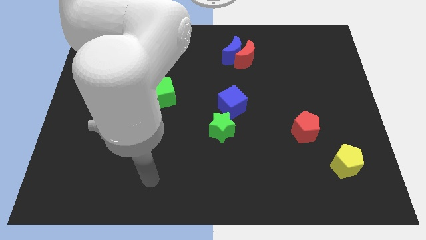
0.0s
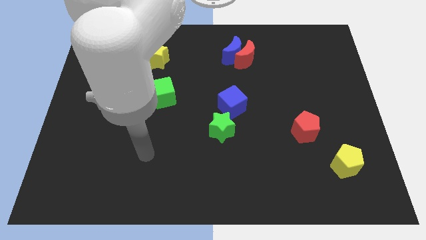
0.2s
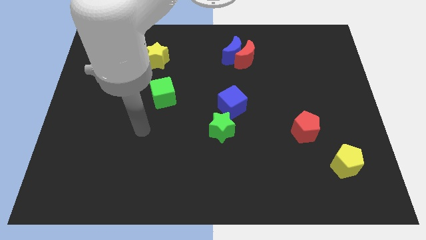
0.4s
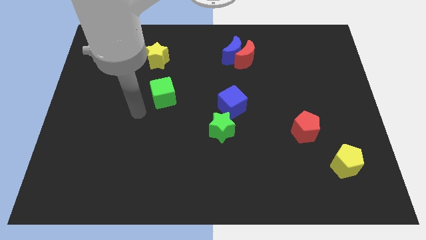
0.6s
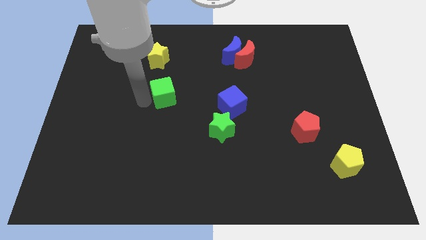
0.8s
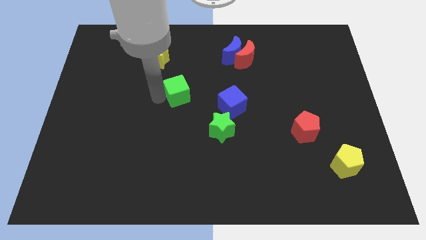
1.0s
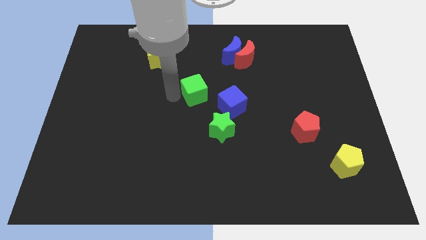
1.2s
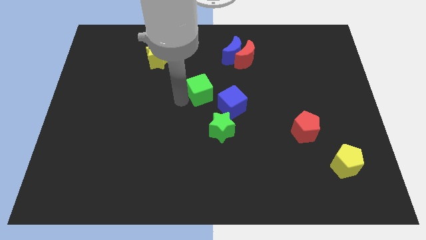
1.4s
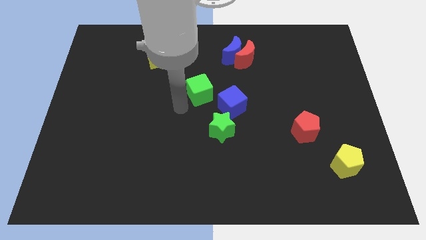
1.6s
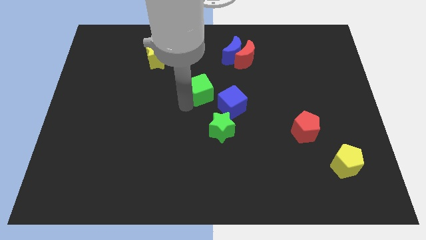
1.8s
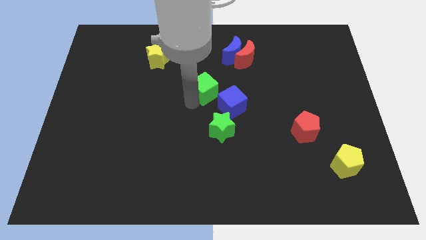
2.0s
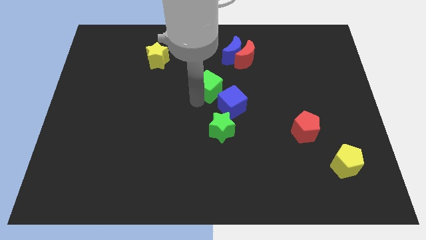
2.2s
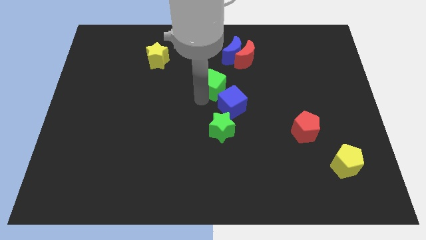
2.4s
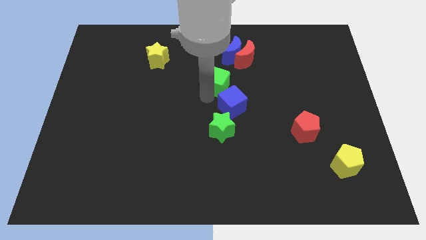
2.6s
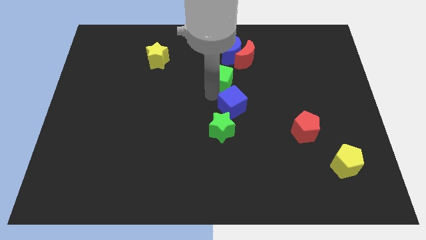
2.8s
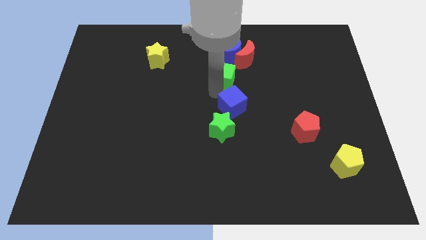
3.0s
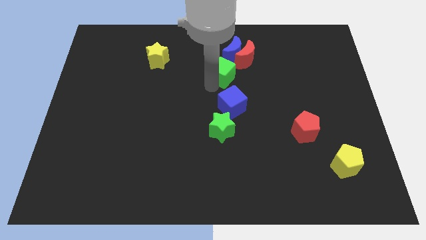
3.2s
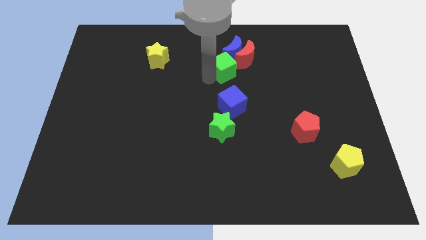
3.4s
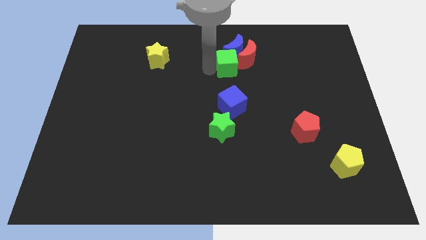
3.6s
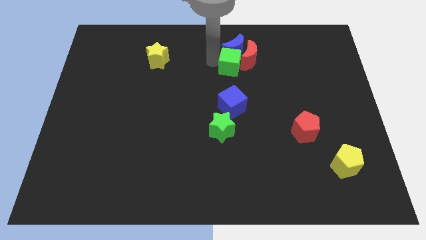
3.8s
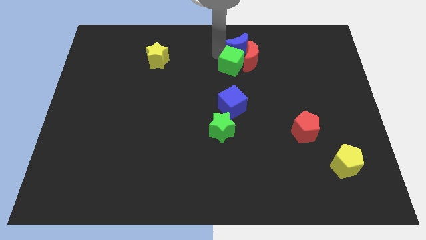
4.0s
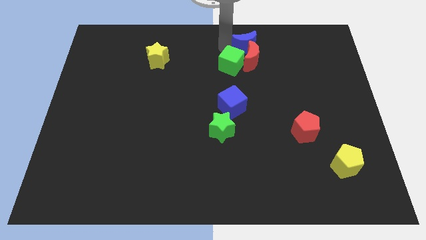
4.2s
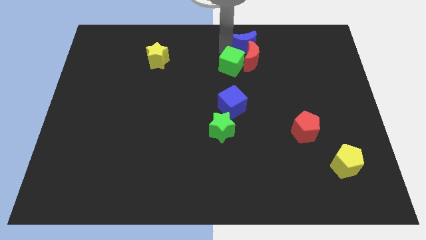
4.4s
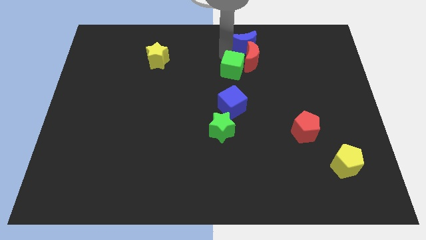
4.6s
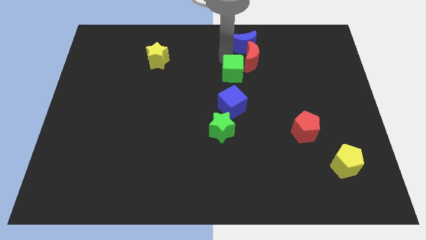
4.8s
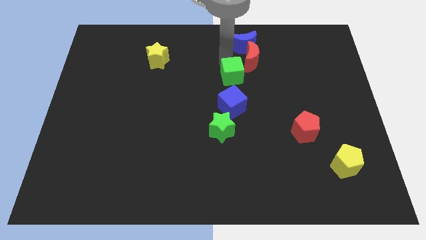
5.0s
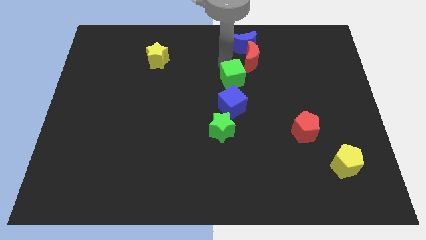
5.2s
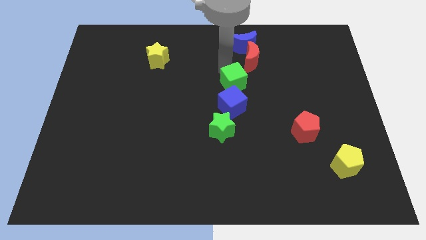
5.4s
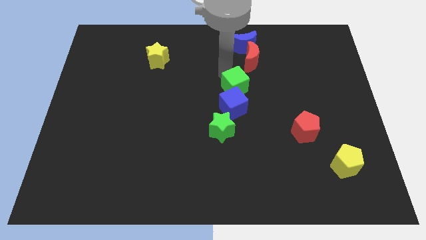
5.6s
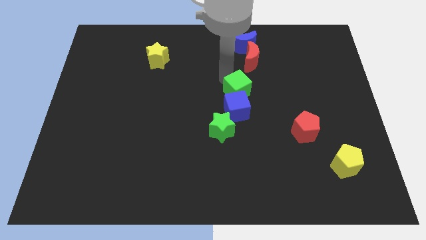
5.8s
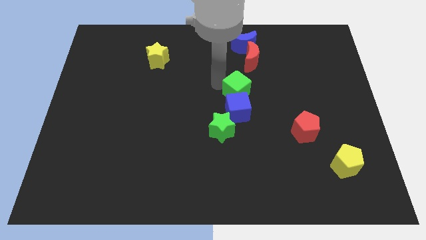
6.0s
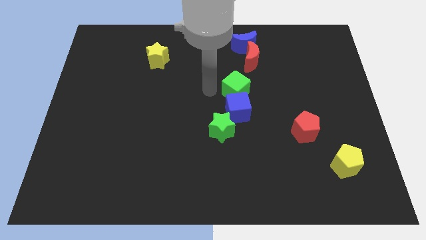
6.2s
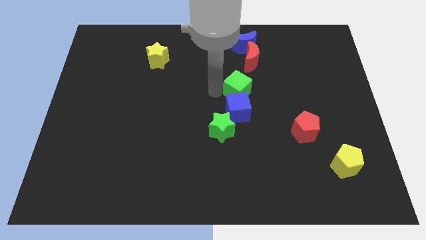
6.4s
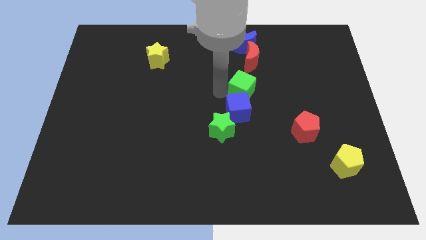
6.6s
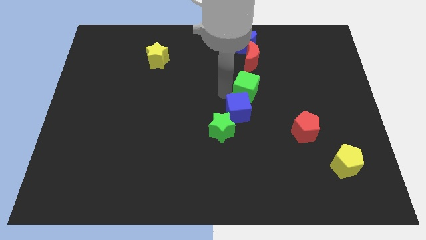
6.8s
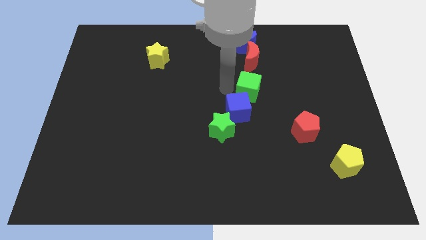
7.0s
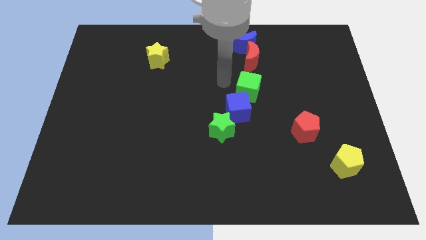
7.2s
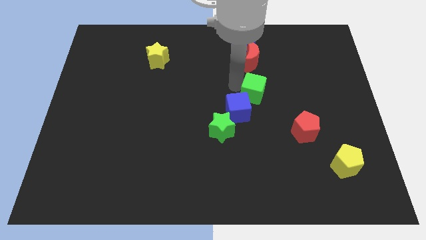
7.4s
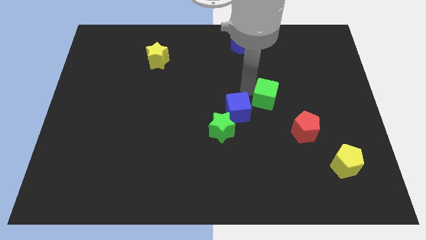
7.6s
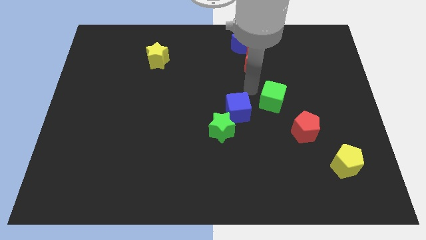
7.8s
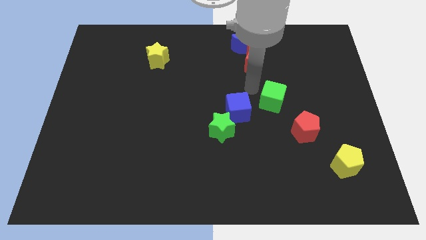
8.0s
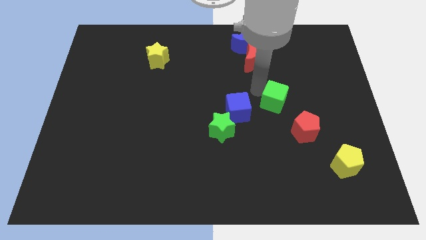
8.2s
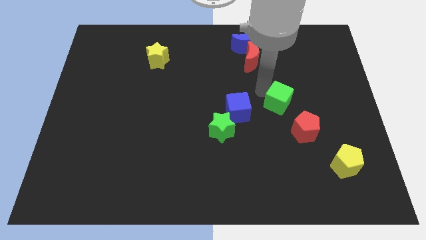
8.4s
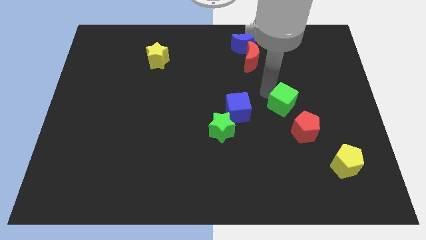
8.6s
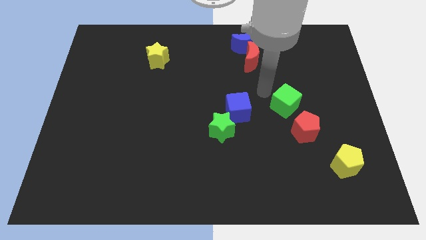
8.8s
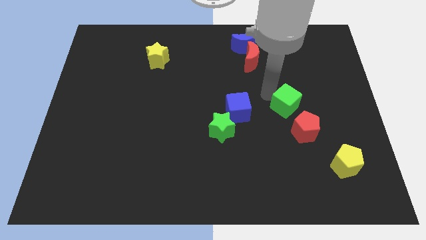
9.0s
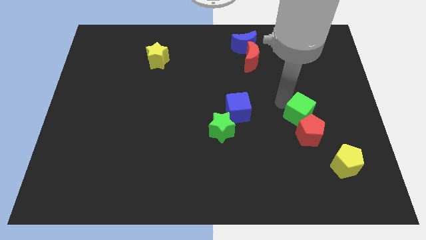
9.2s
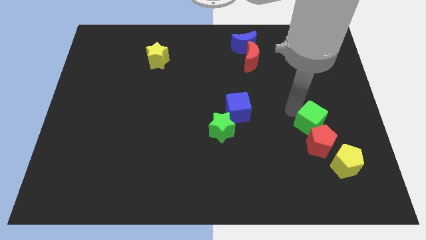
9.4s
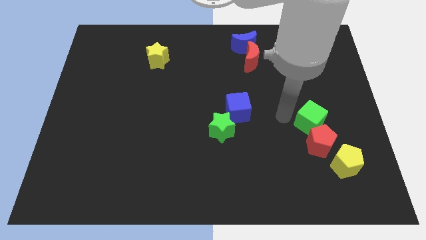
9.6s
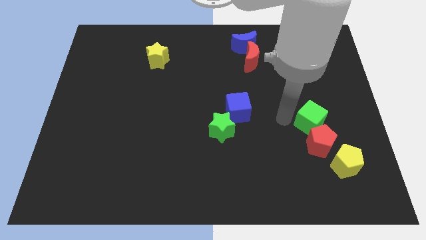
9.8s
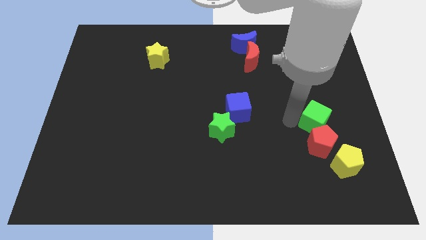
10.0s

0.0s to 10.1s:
put the green cube to the top side of the yellow pentagon

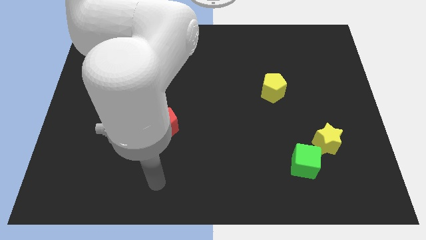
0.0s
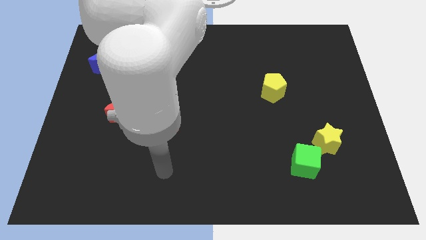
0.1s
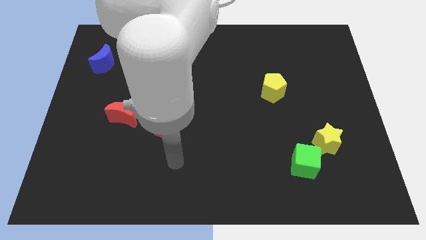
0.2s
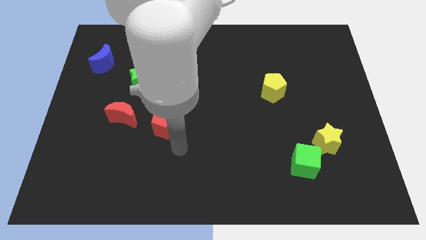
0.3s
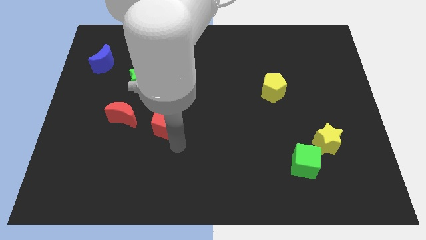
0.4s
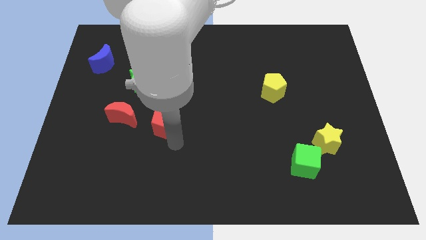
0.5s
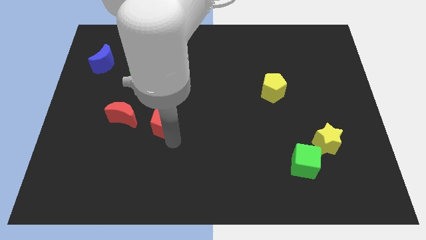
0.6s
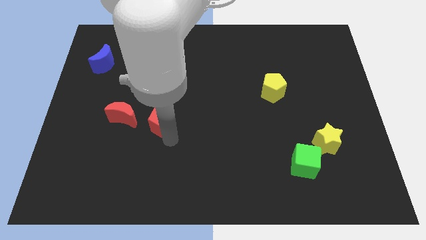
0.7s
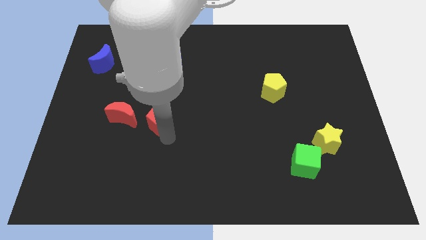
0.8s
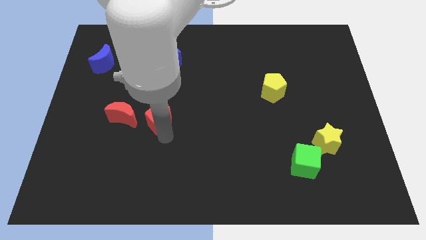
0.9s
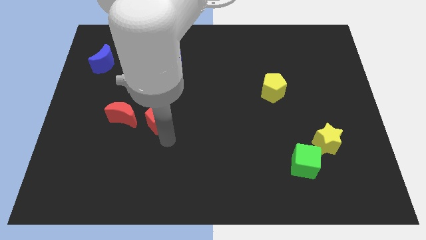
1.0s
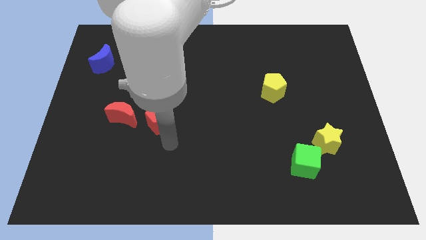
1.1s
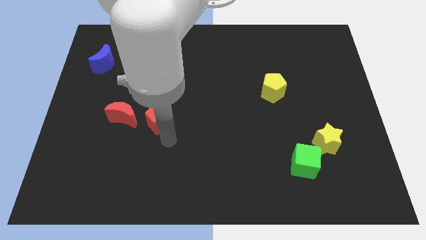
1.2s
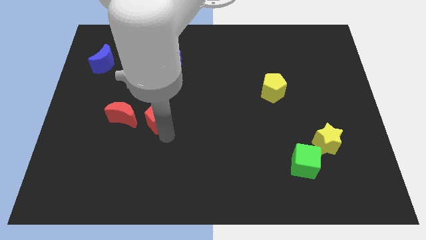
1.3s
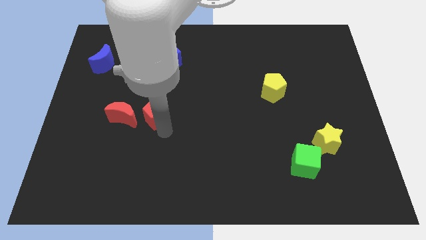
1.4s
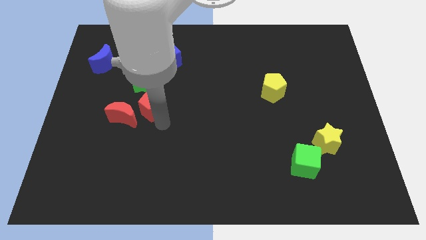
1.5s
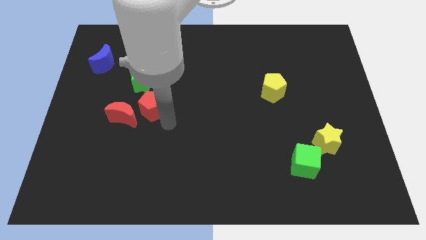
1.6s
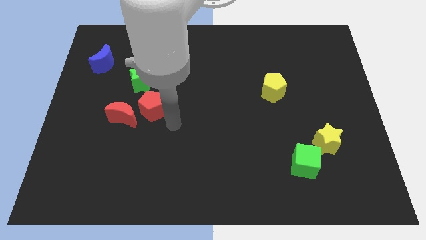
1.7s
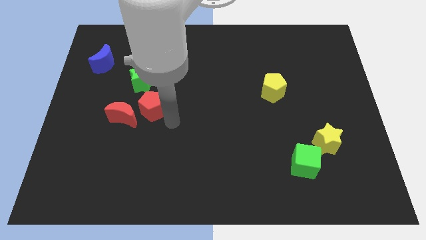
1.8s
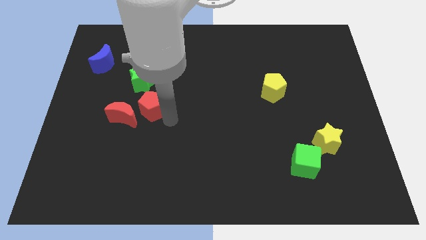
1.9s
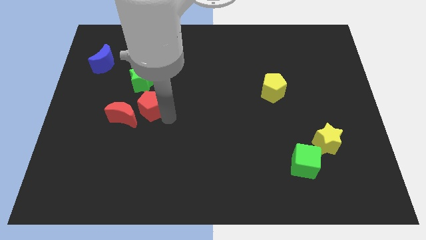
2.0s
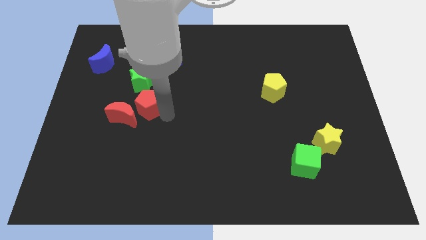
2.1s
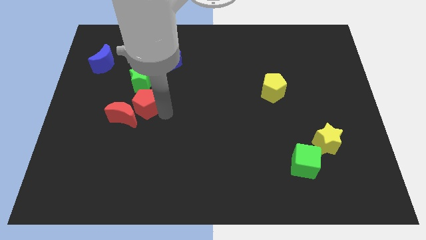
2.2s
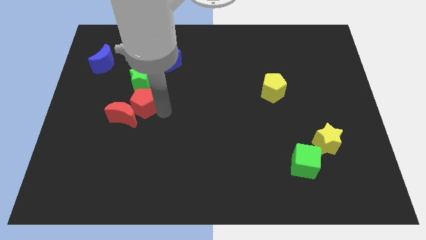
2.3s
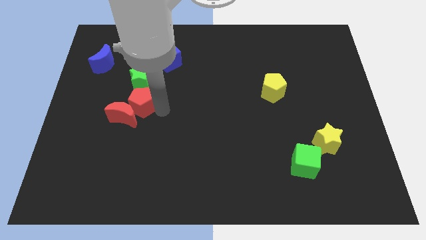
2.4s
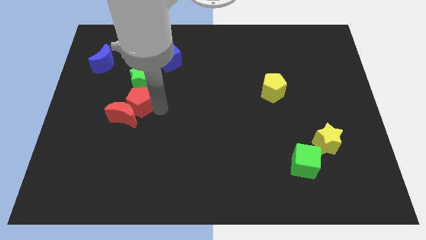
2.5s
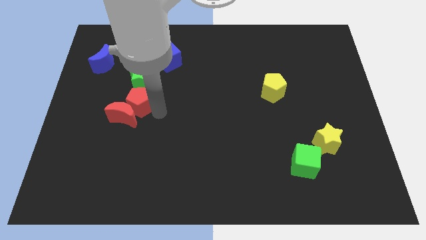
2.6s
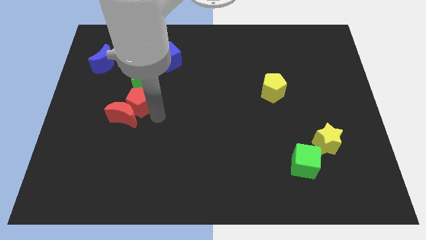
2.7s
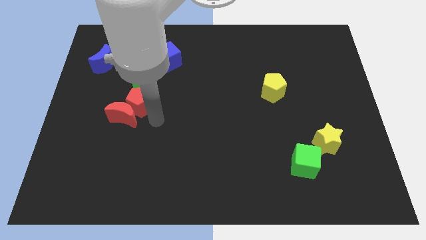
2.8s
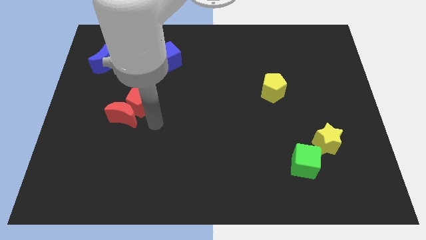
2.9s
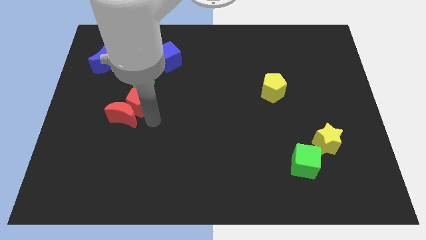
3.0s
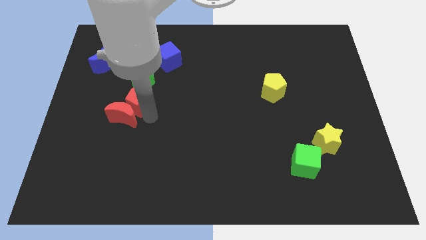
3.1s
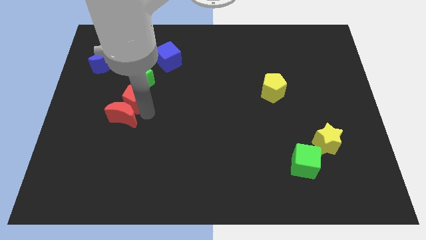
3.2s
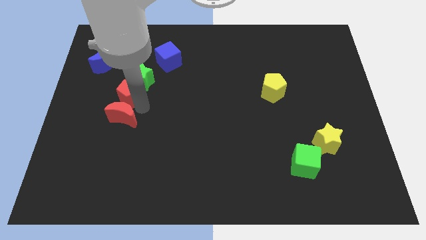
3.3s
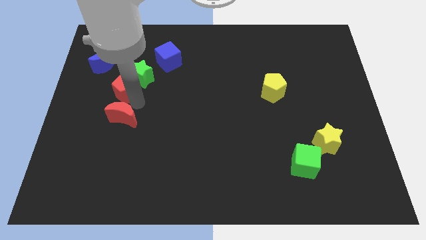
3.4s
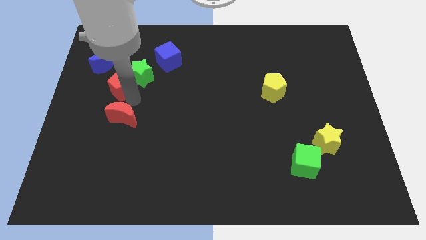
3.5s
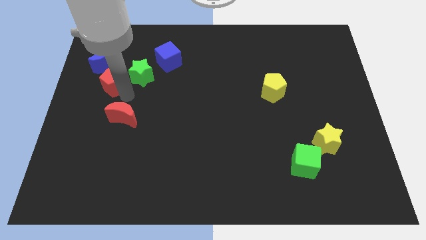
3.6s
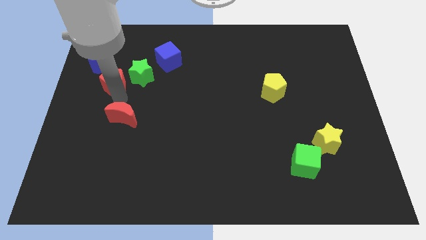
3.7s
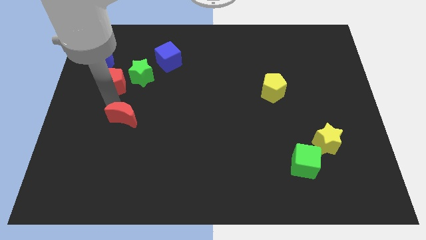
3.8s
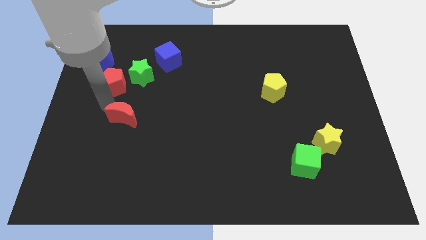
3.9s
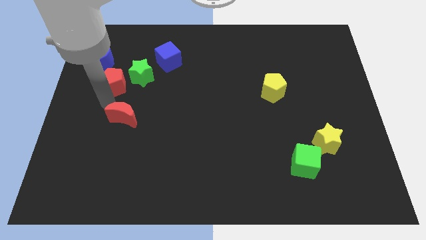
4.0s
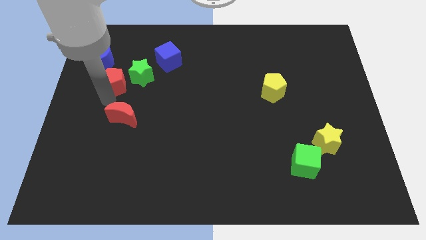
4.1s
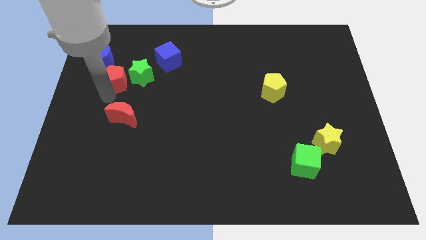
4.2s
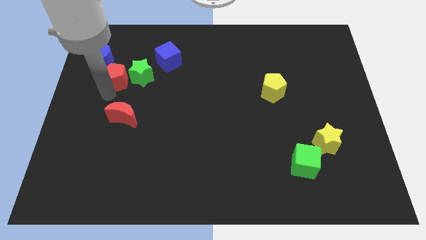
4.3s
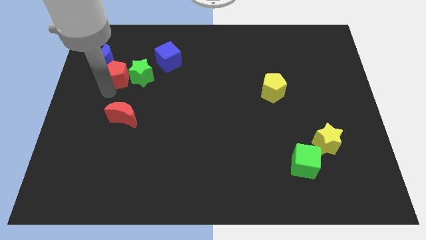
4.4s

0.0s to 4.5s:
put the red pentagon to the top left of the green star
